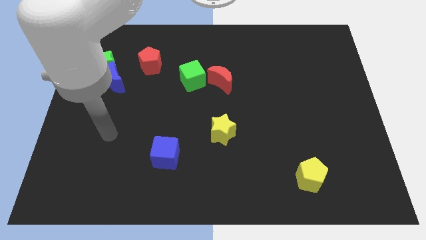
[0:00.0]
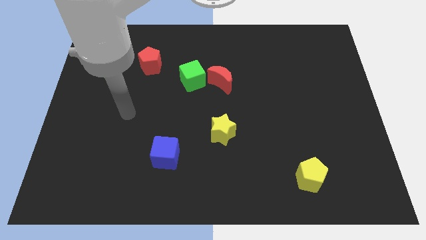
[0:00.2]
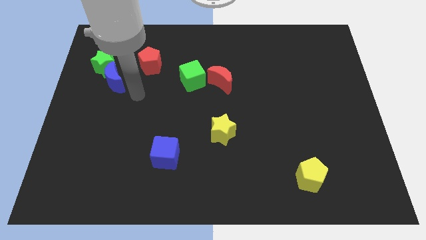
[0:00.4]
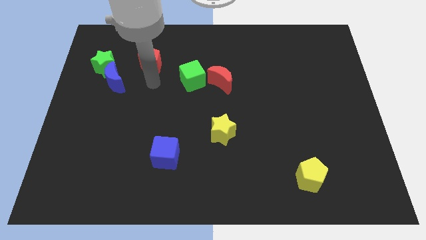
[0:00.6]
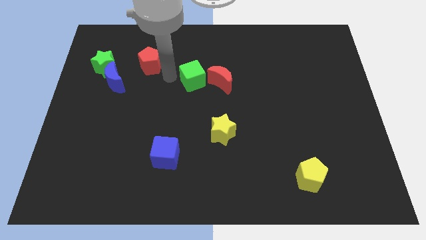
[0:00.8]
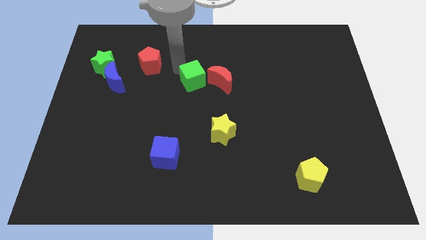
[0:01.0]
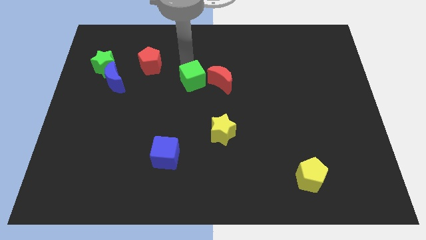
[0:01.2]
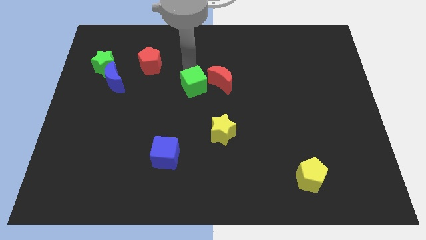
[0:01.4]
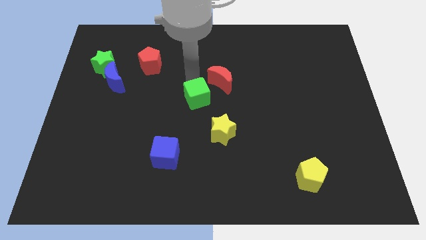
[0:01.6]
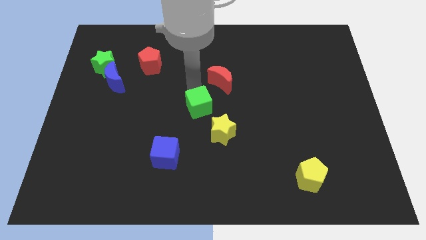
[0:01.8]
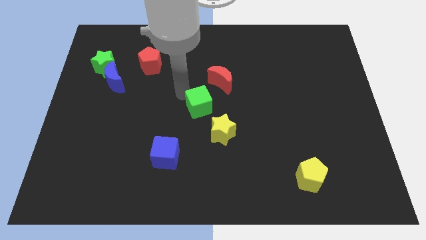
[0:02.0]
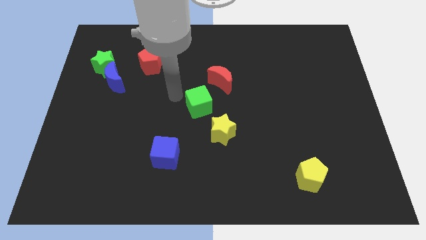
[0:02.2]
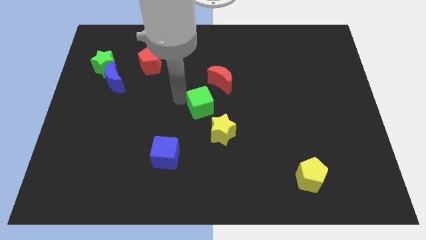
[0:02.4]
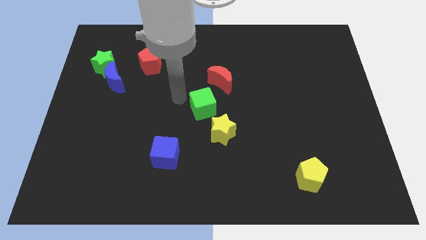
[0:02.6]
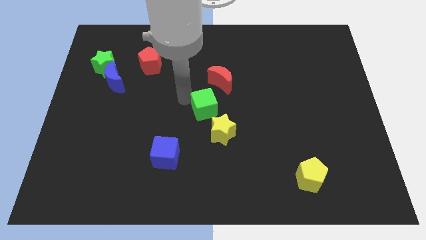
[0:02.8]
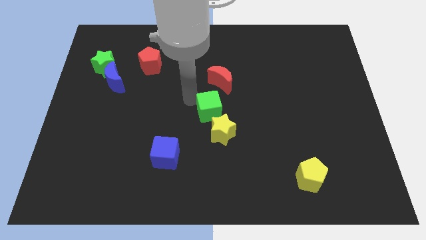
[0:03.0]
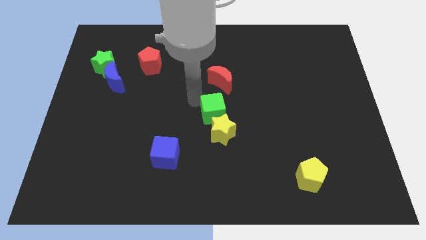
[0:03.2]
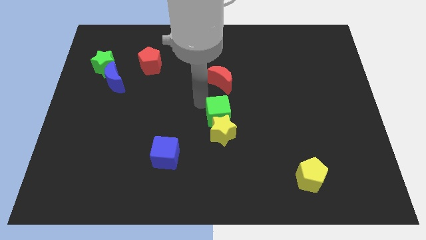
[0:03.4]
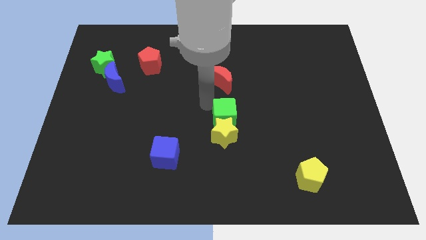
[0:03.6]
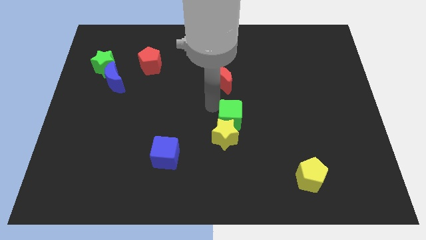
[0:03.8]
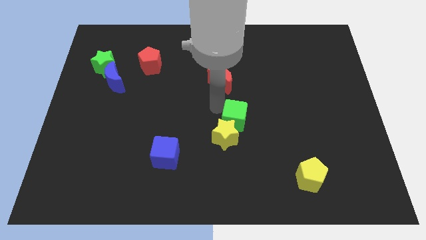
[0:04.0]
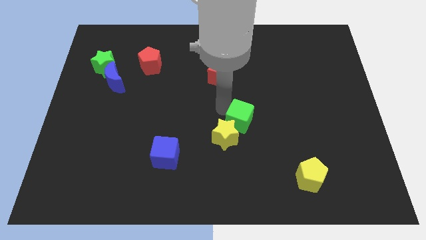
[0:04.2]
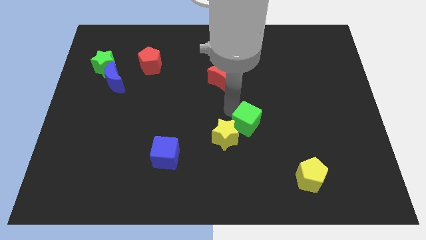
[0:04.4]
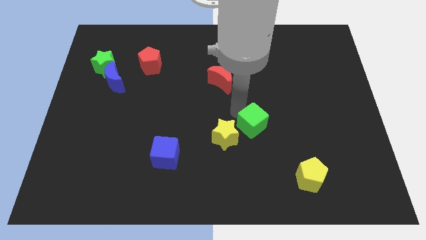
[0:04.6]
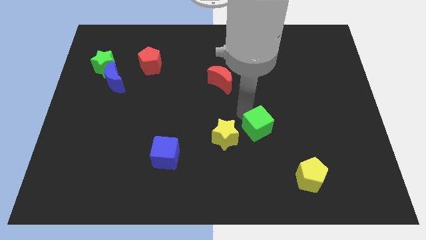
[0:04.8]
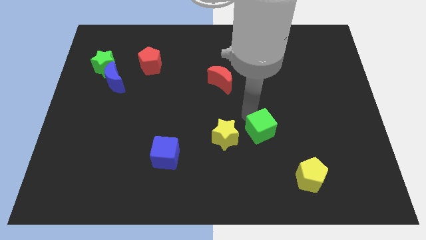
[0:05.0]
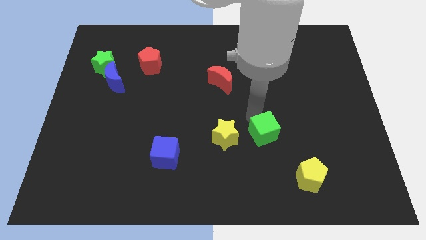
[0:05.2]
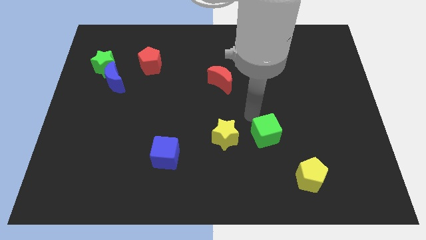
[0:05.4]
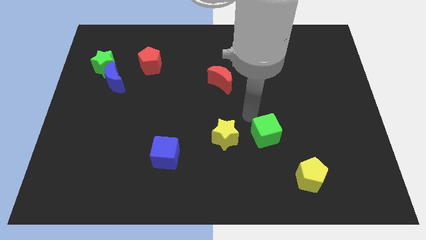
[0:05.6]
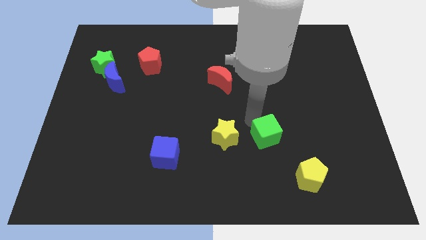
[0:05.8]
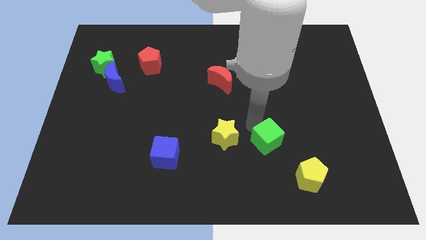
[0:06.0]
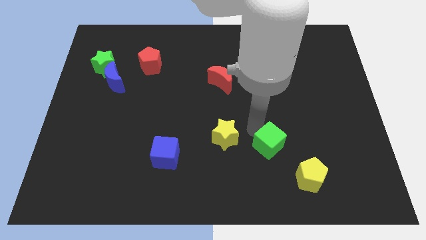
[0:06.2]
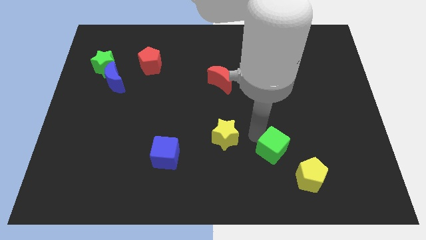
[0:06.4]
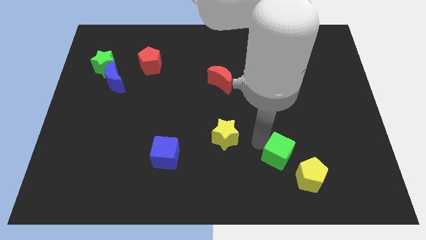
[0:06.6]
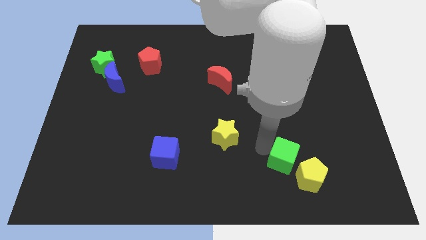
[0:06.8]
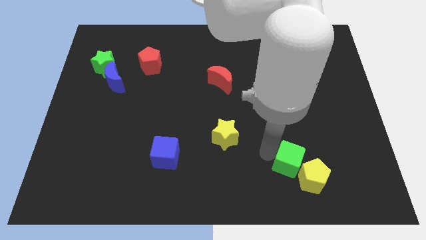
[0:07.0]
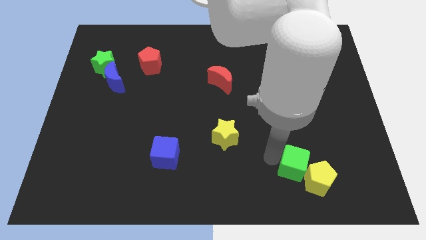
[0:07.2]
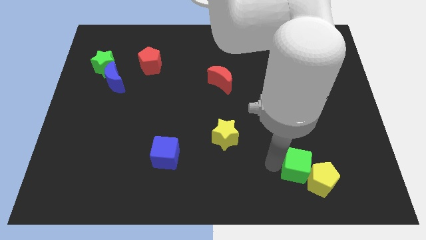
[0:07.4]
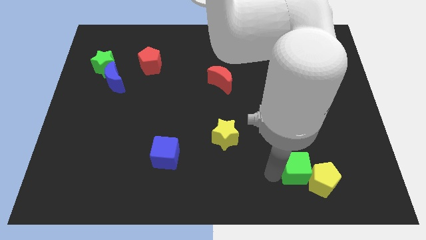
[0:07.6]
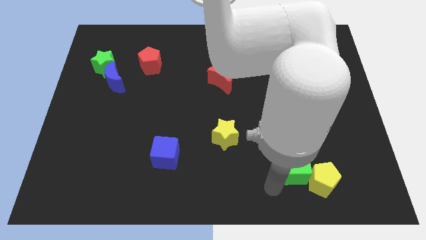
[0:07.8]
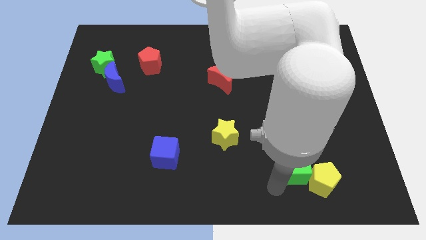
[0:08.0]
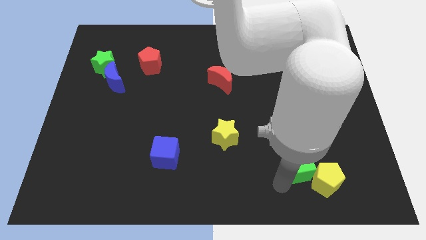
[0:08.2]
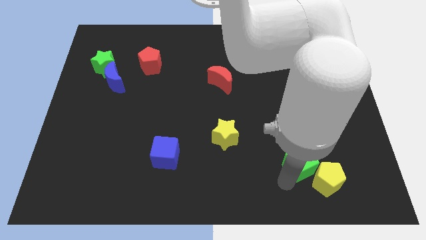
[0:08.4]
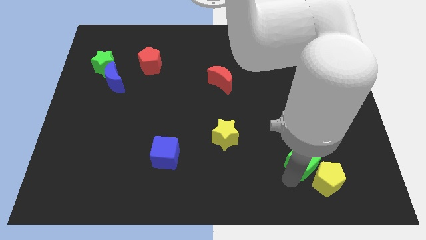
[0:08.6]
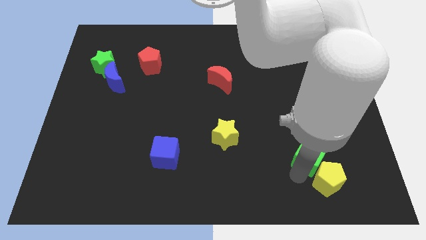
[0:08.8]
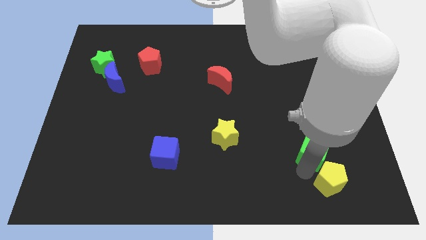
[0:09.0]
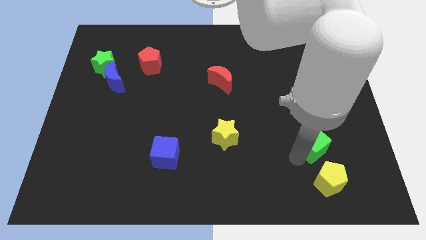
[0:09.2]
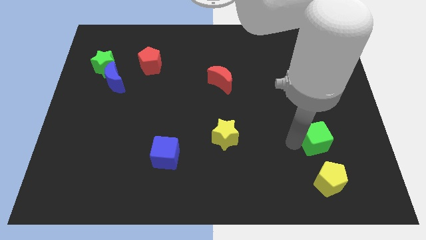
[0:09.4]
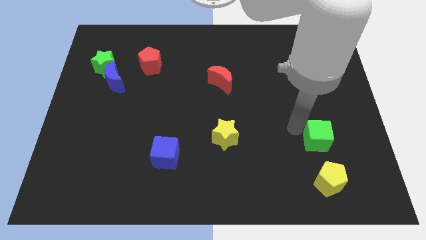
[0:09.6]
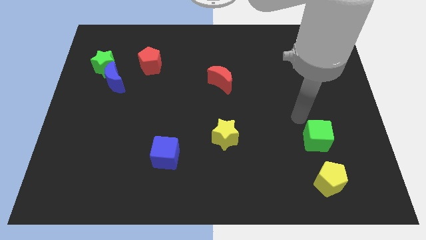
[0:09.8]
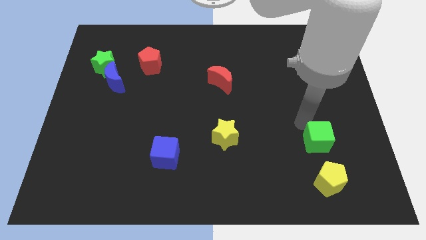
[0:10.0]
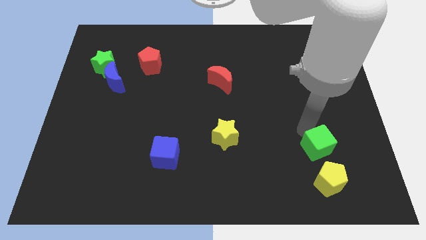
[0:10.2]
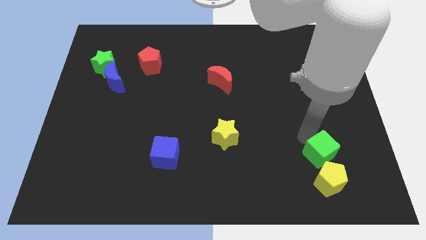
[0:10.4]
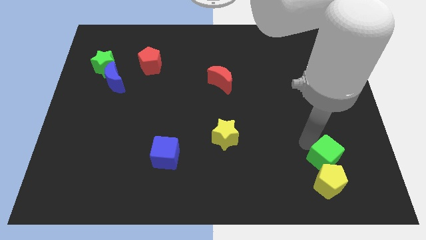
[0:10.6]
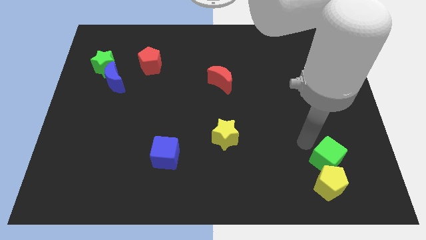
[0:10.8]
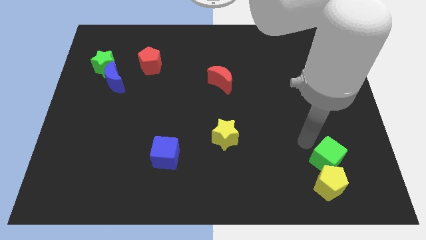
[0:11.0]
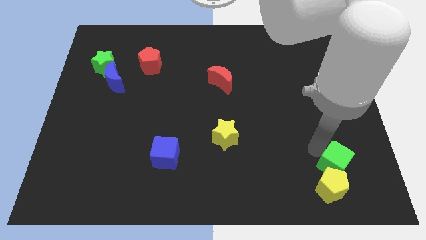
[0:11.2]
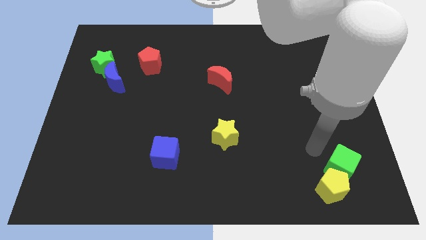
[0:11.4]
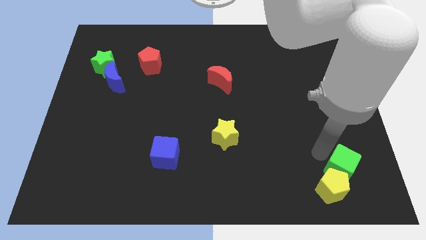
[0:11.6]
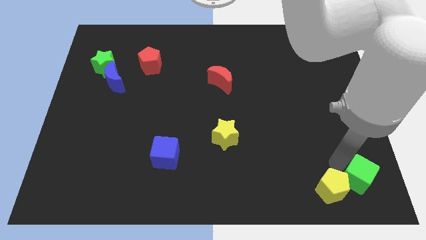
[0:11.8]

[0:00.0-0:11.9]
slide the green cube to the bottom right corner

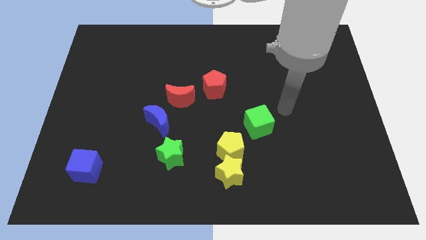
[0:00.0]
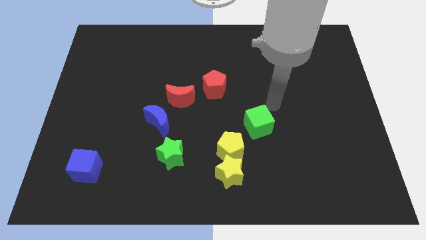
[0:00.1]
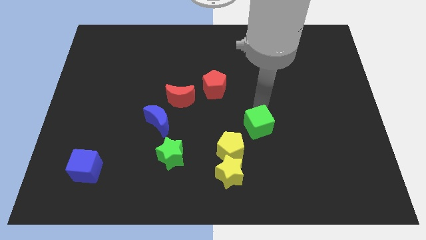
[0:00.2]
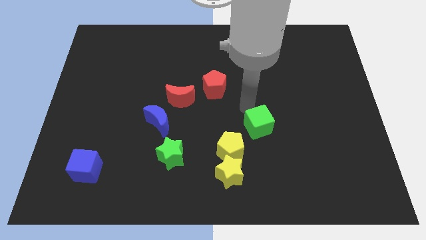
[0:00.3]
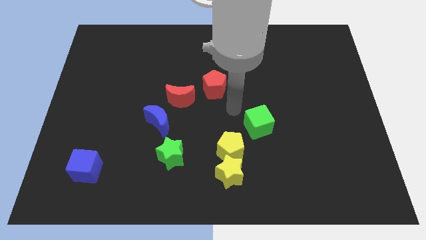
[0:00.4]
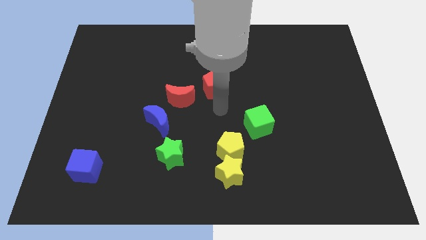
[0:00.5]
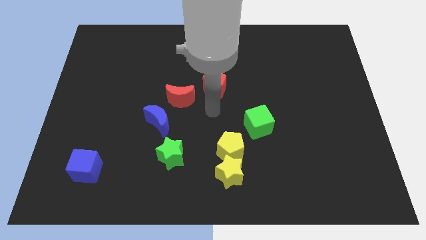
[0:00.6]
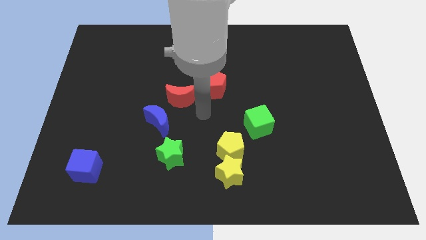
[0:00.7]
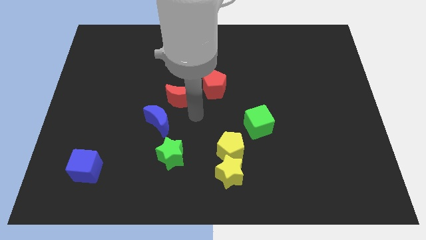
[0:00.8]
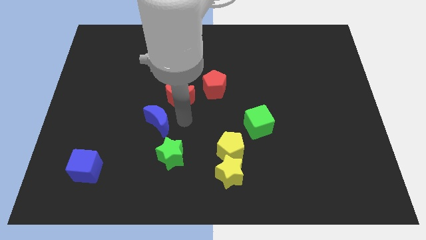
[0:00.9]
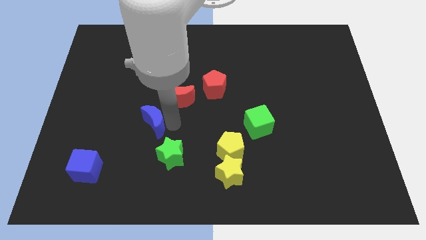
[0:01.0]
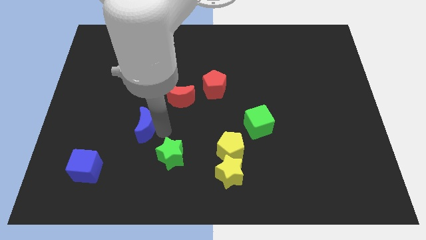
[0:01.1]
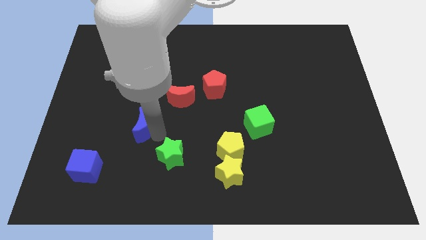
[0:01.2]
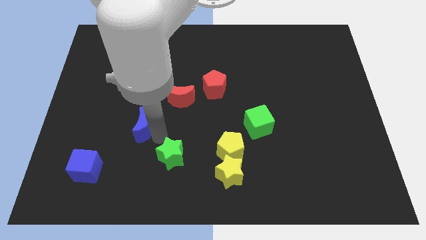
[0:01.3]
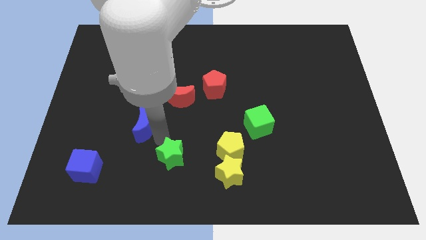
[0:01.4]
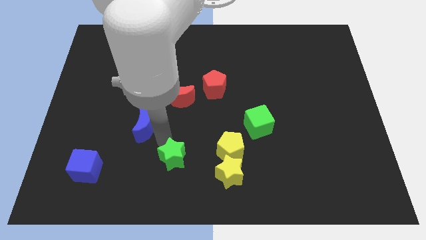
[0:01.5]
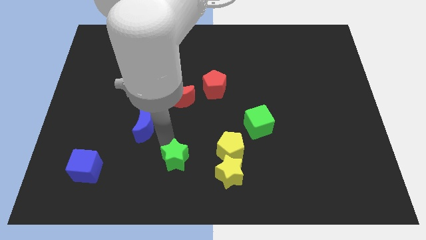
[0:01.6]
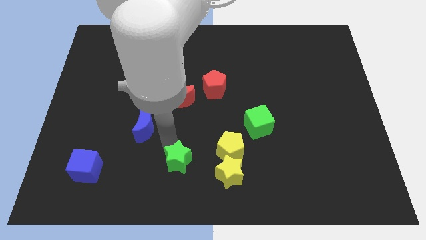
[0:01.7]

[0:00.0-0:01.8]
slide the green star to the bottom
